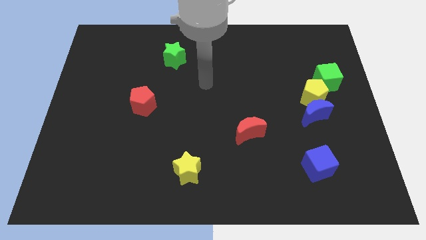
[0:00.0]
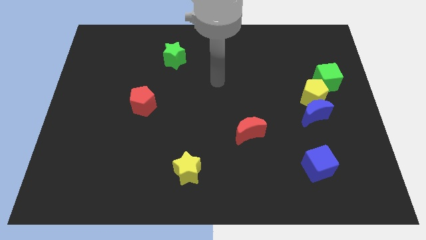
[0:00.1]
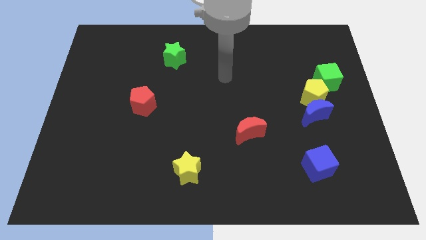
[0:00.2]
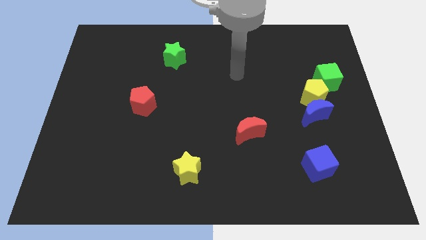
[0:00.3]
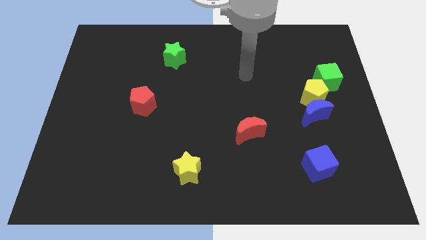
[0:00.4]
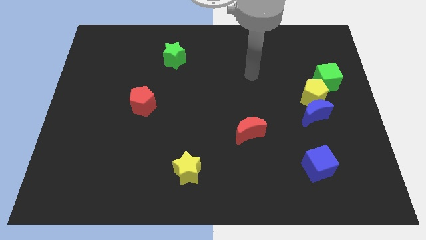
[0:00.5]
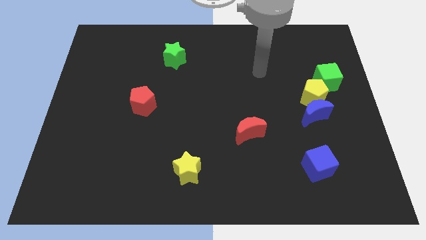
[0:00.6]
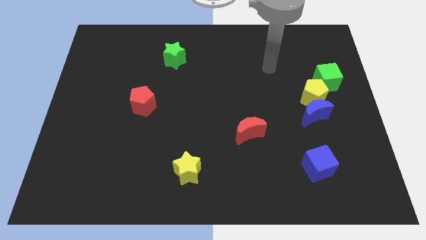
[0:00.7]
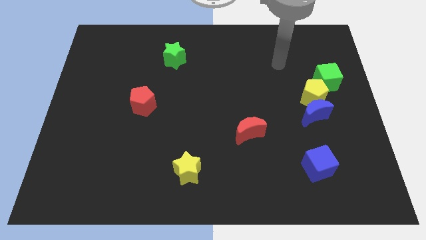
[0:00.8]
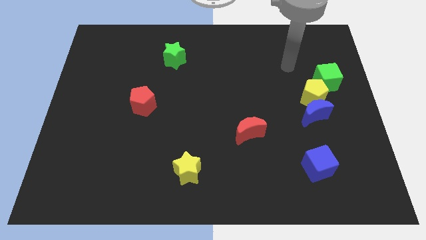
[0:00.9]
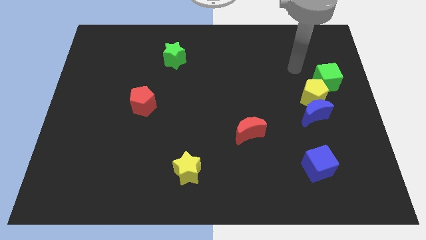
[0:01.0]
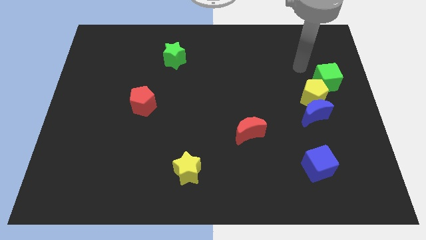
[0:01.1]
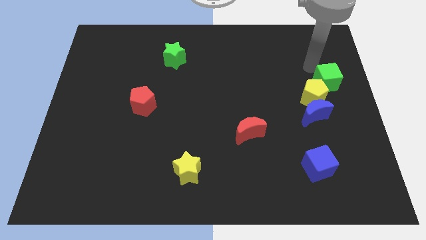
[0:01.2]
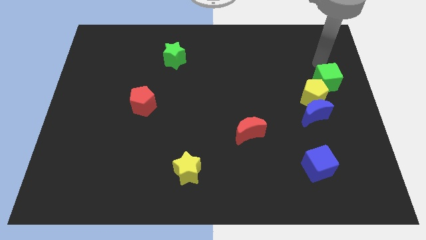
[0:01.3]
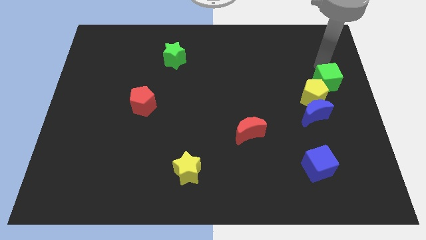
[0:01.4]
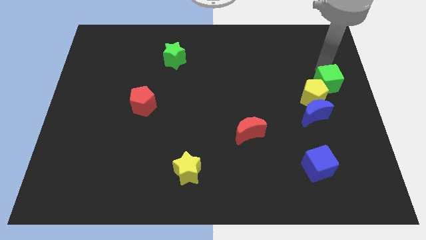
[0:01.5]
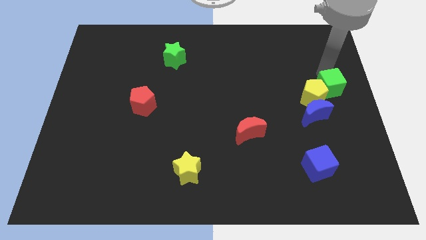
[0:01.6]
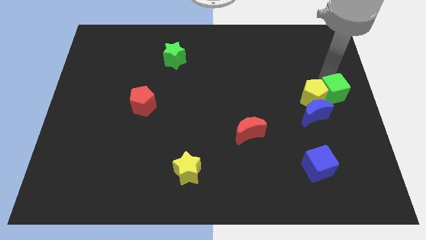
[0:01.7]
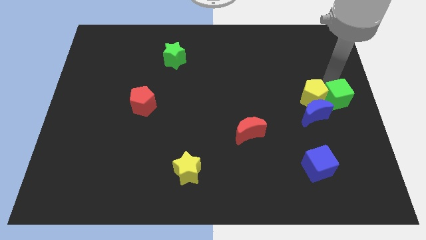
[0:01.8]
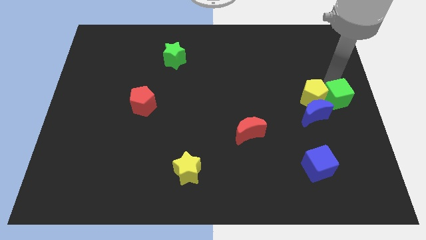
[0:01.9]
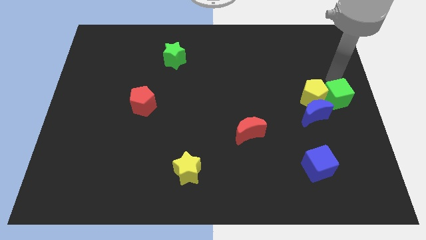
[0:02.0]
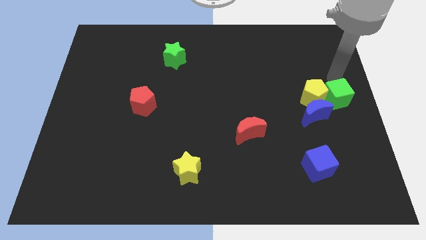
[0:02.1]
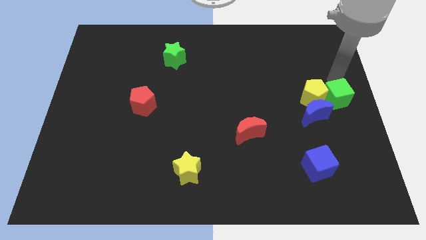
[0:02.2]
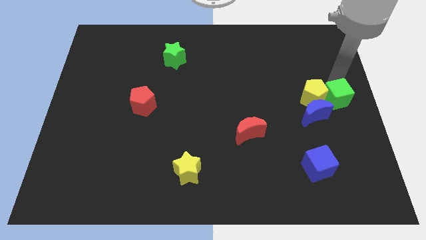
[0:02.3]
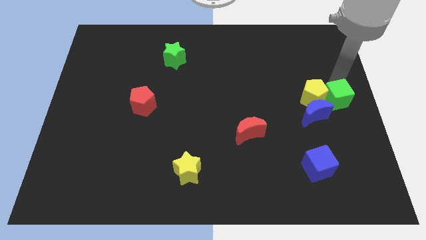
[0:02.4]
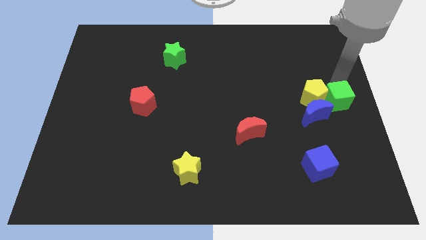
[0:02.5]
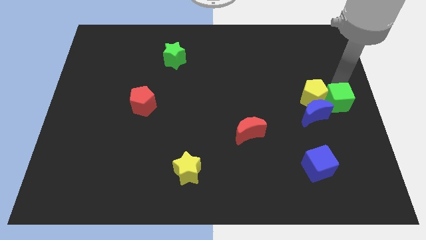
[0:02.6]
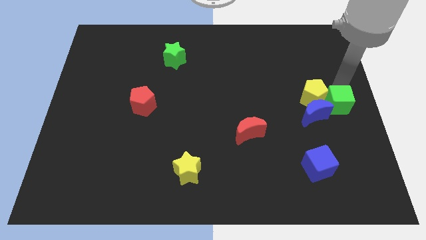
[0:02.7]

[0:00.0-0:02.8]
push the green cube a bit down

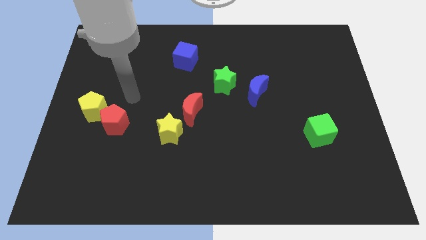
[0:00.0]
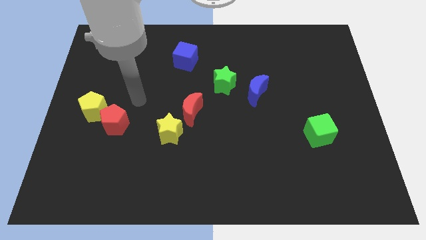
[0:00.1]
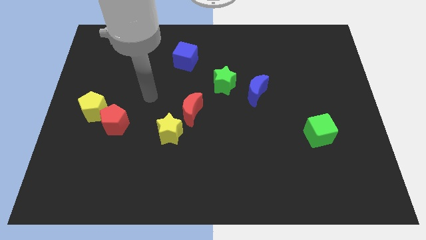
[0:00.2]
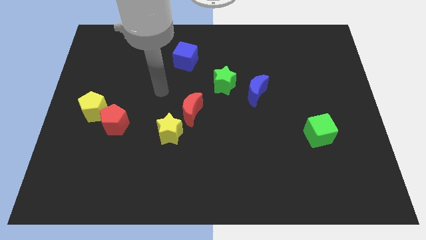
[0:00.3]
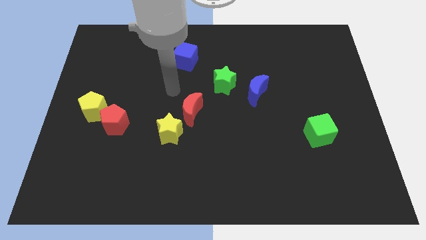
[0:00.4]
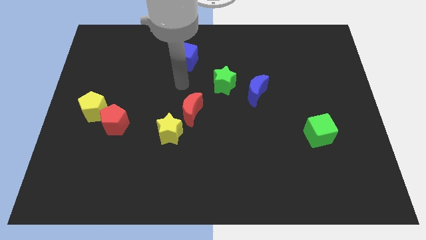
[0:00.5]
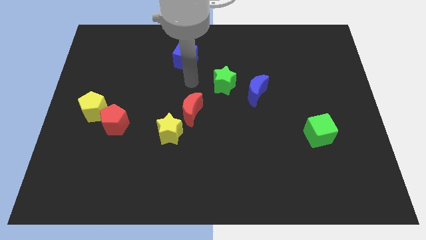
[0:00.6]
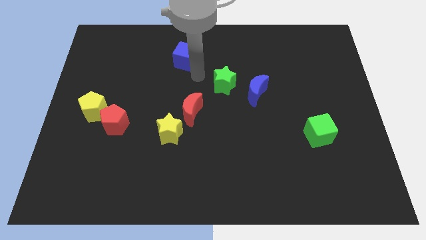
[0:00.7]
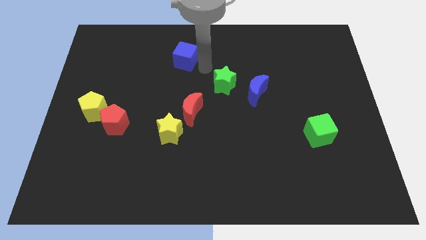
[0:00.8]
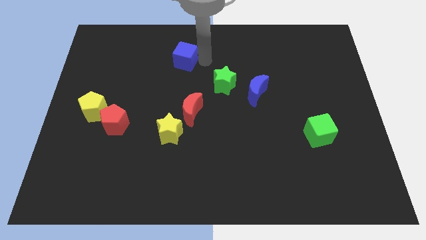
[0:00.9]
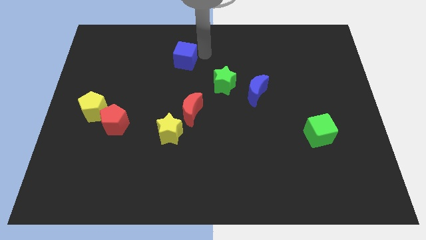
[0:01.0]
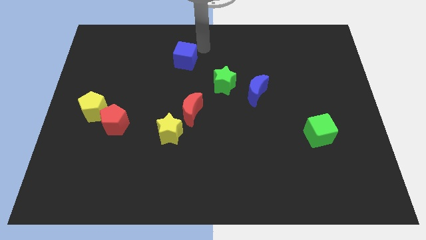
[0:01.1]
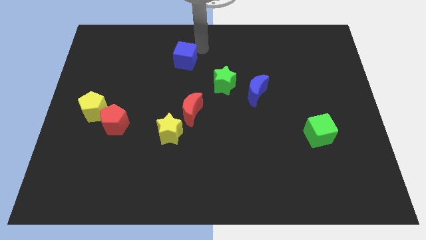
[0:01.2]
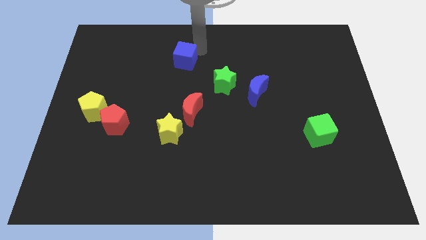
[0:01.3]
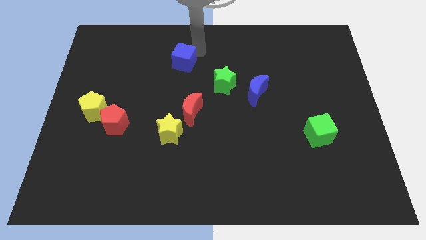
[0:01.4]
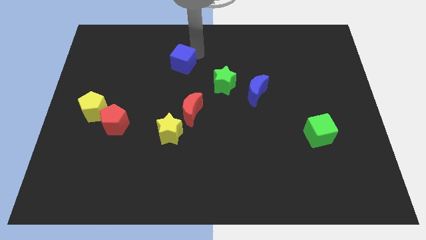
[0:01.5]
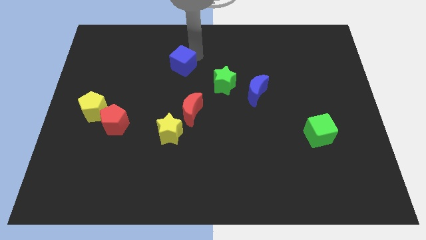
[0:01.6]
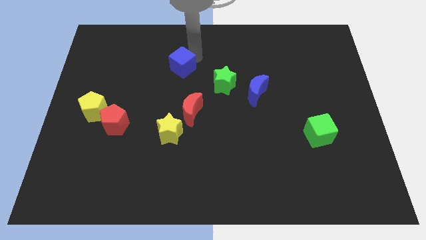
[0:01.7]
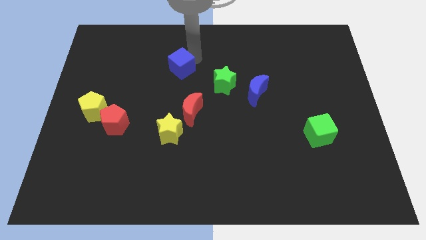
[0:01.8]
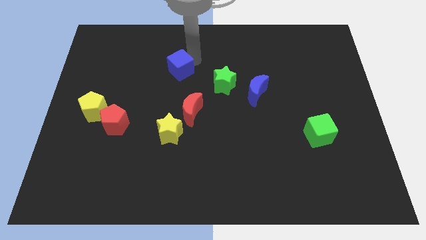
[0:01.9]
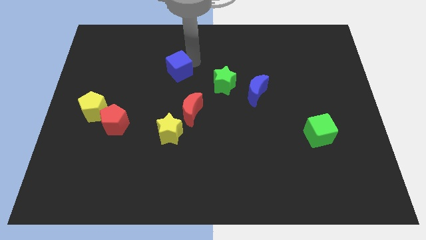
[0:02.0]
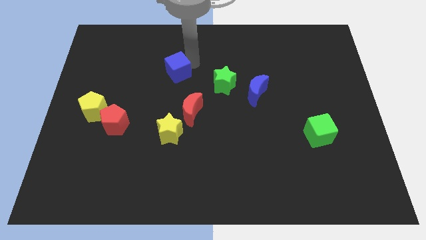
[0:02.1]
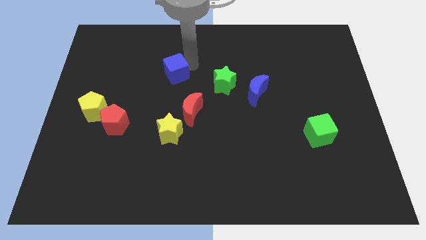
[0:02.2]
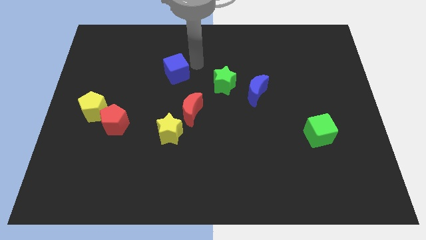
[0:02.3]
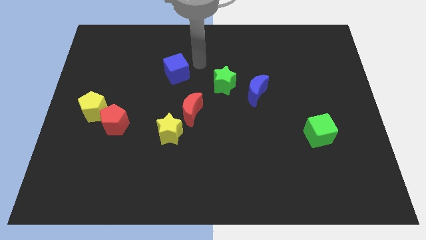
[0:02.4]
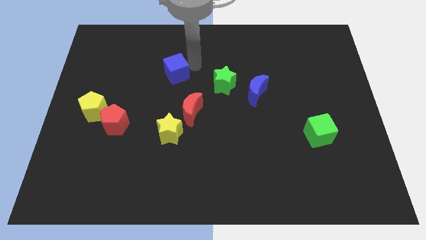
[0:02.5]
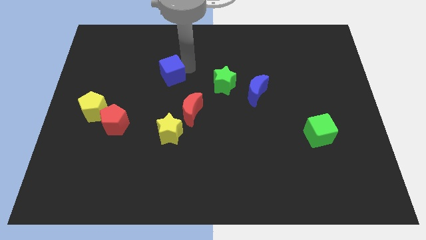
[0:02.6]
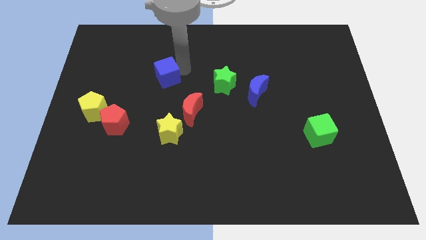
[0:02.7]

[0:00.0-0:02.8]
slightly slide the blue cube down and then left

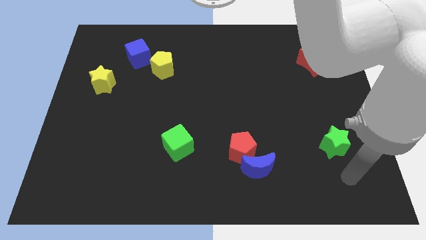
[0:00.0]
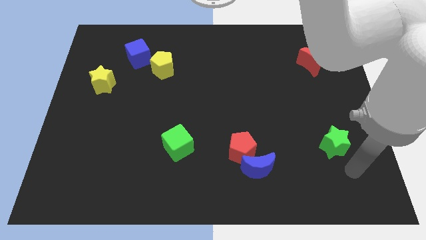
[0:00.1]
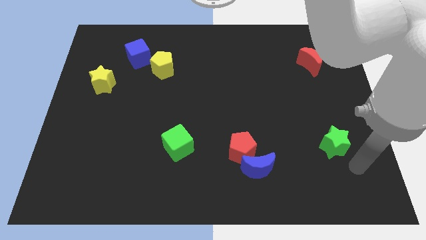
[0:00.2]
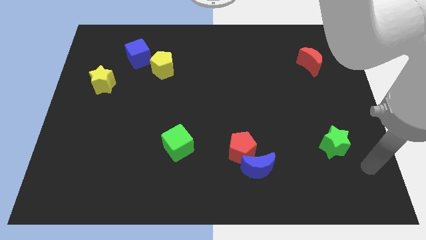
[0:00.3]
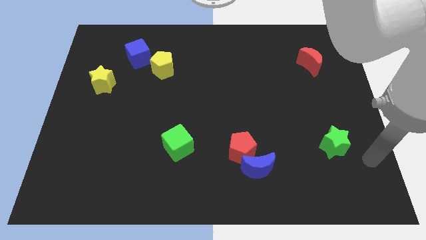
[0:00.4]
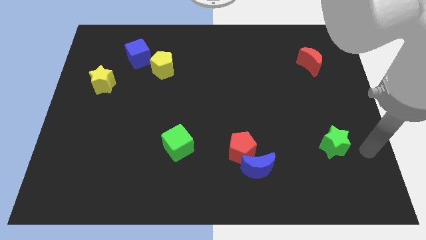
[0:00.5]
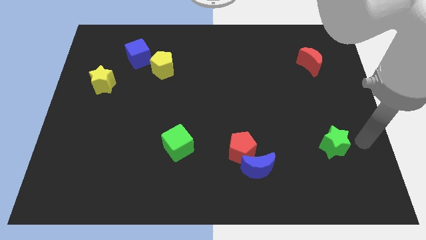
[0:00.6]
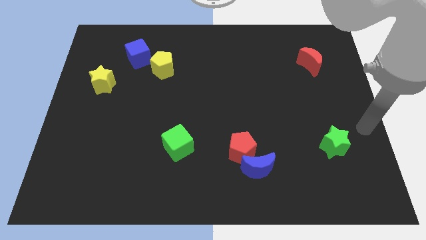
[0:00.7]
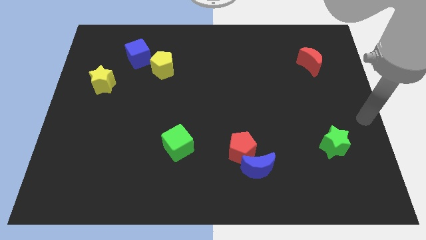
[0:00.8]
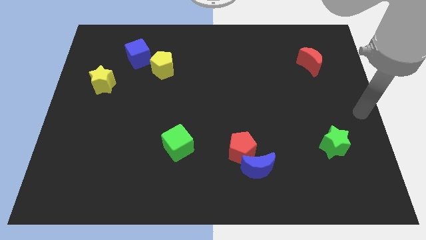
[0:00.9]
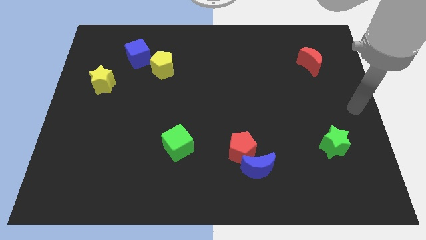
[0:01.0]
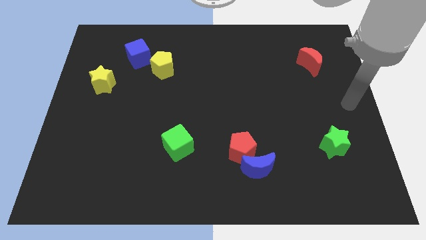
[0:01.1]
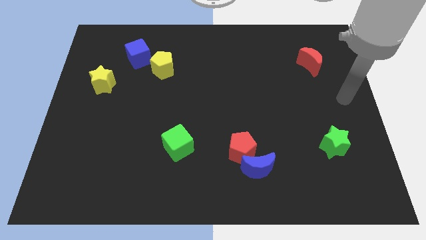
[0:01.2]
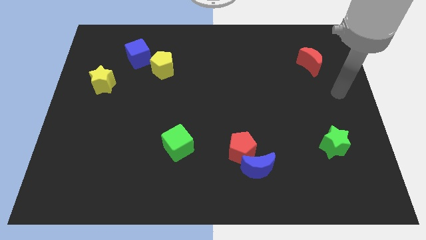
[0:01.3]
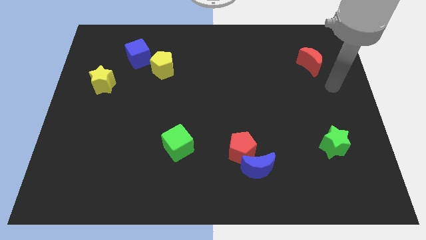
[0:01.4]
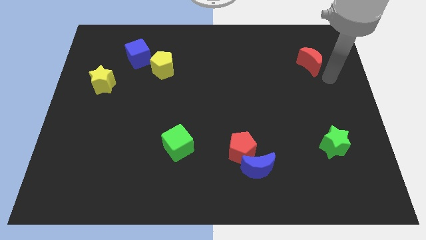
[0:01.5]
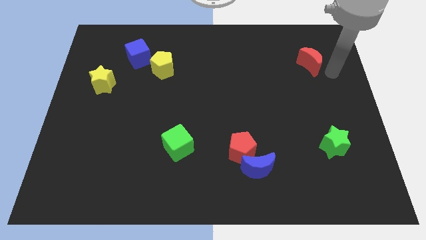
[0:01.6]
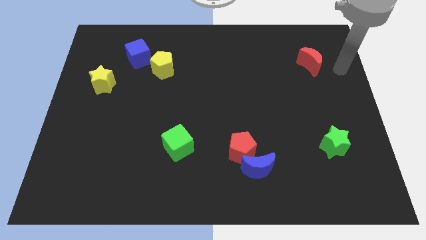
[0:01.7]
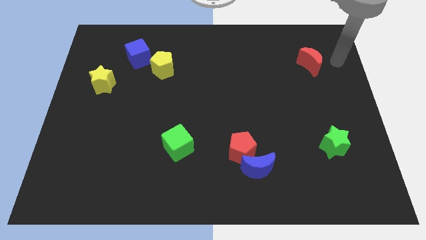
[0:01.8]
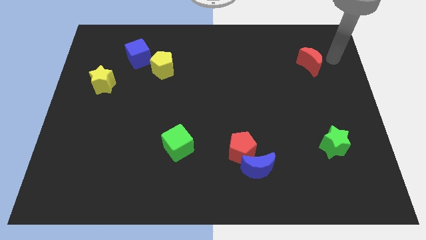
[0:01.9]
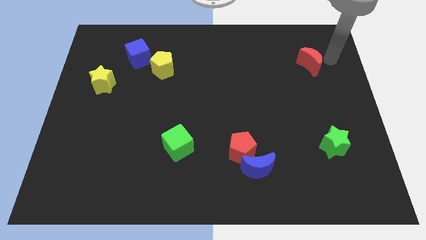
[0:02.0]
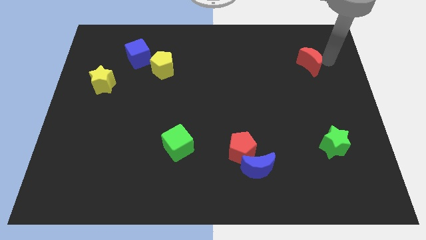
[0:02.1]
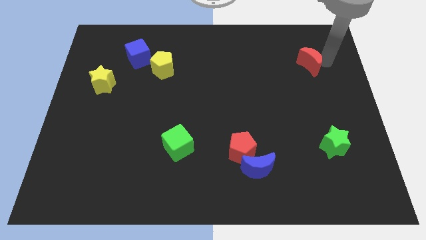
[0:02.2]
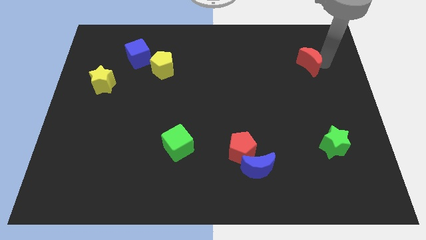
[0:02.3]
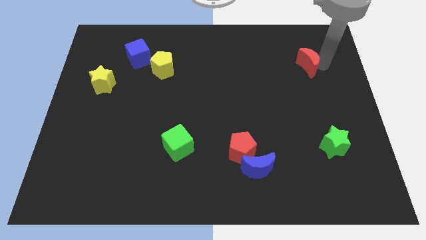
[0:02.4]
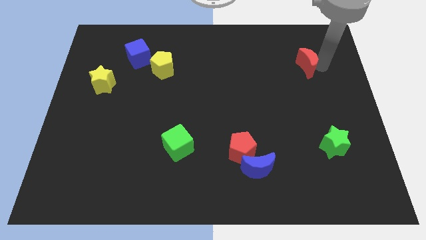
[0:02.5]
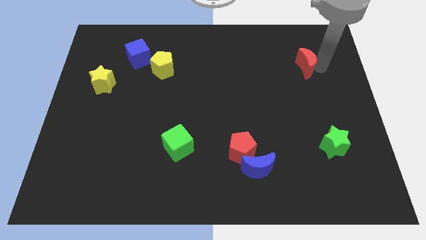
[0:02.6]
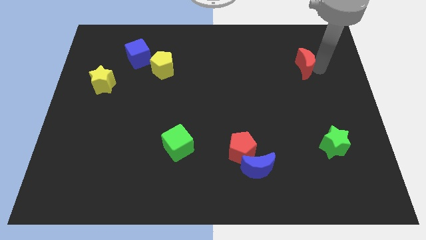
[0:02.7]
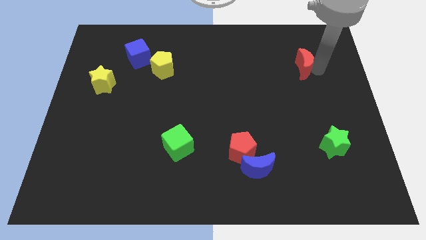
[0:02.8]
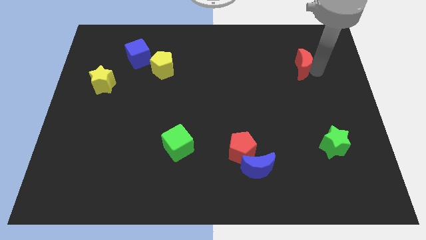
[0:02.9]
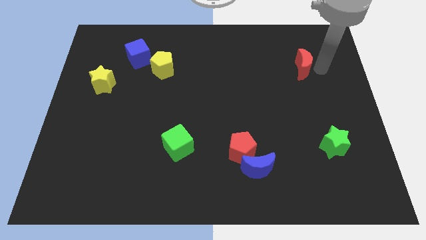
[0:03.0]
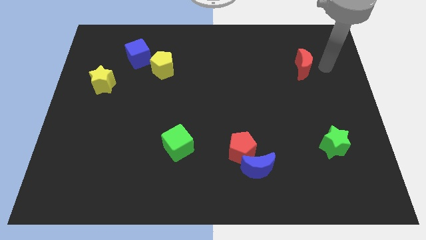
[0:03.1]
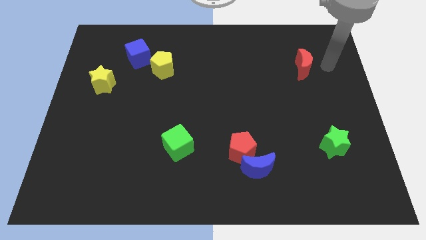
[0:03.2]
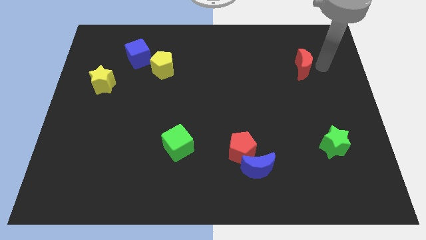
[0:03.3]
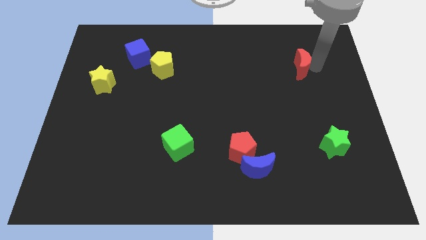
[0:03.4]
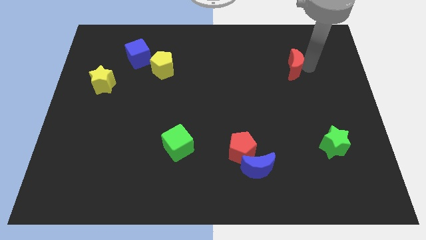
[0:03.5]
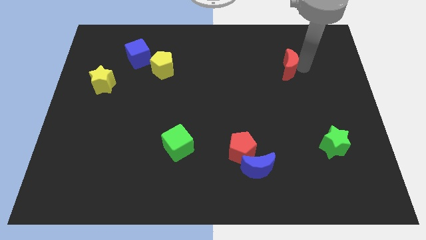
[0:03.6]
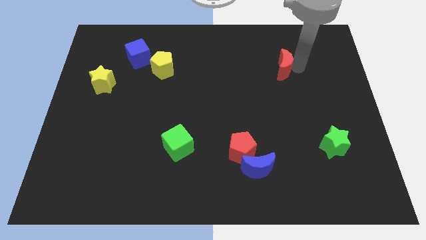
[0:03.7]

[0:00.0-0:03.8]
slightly push the red moon to the left
